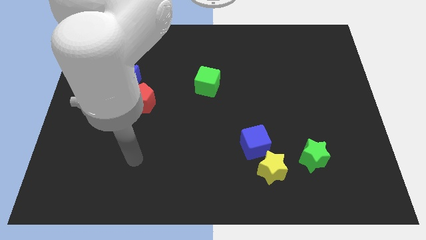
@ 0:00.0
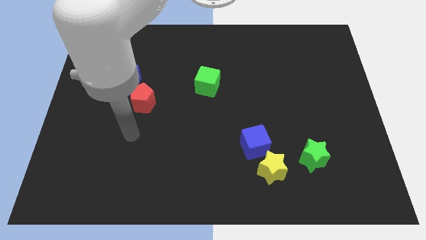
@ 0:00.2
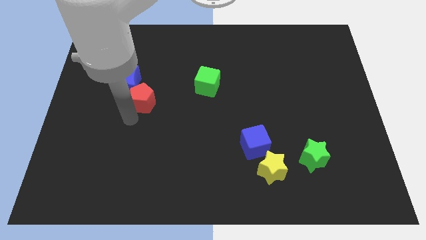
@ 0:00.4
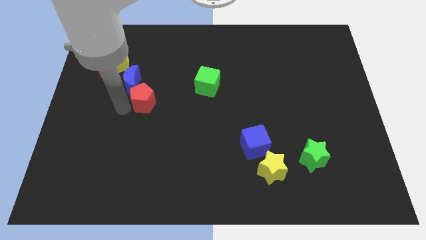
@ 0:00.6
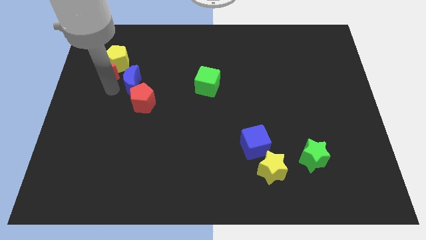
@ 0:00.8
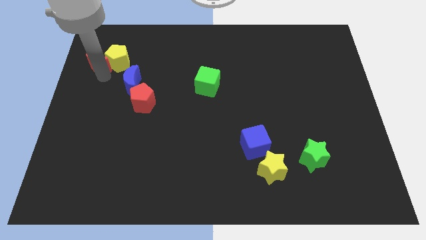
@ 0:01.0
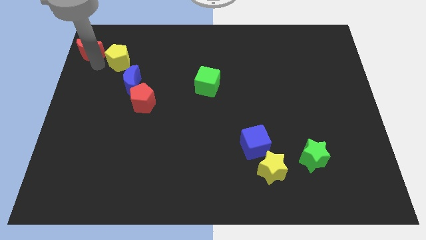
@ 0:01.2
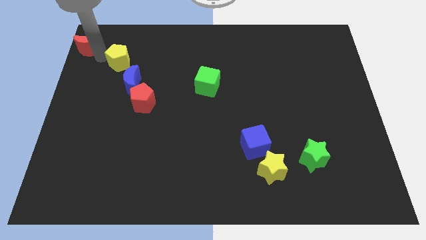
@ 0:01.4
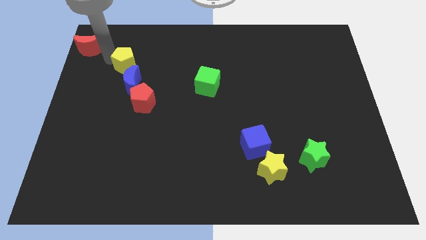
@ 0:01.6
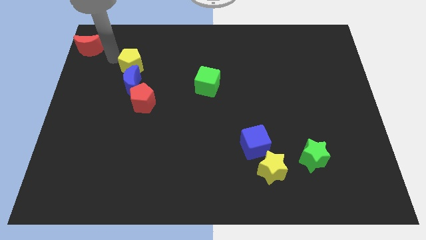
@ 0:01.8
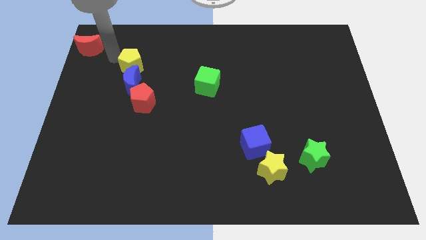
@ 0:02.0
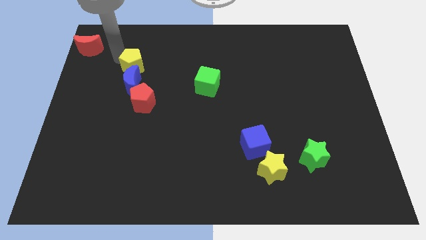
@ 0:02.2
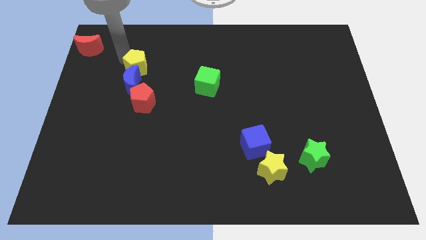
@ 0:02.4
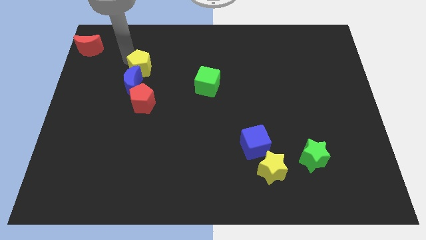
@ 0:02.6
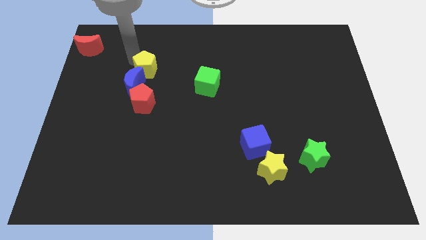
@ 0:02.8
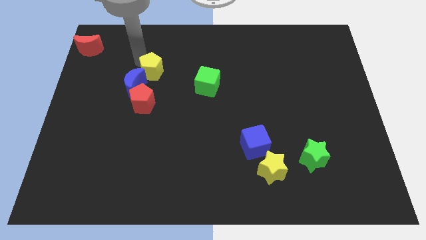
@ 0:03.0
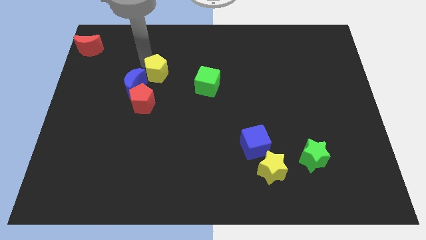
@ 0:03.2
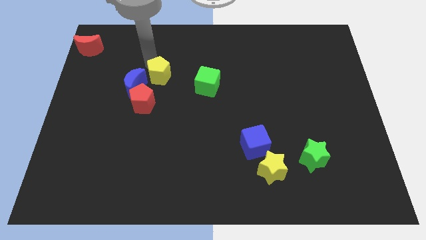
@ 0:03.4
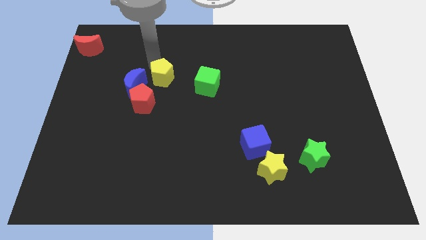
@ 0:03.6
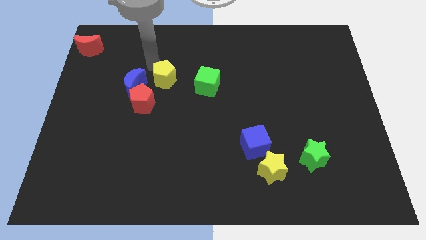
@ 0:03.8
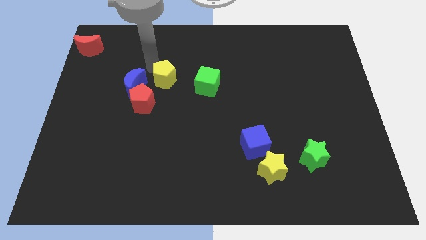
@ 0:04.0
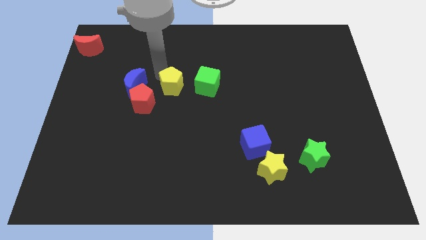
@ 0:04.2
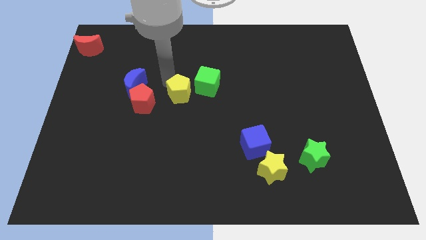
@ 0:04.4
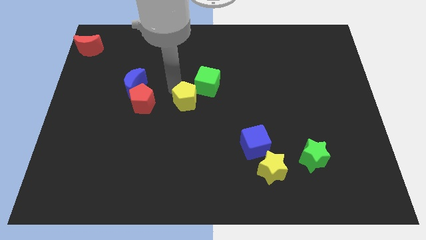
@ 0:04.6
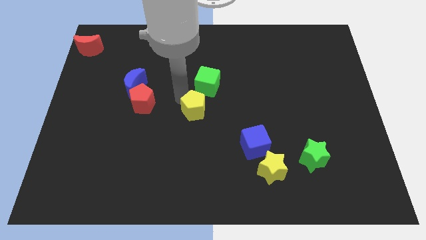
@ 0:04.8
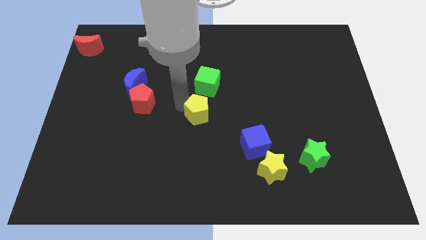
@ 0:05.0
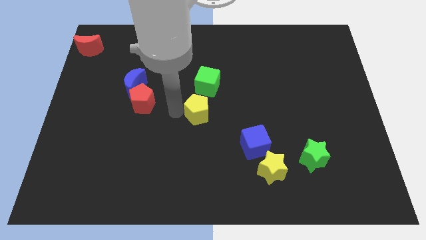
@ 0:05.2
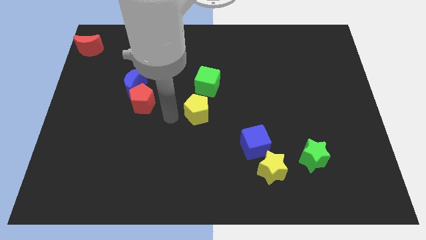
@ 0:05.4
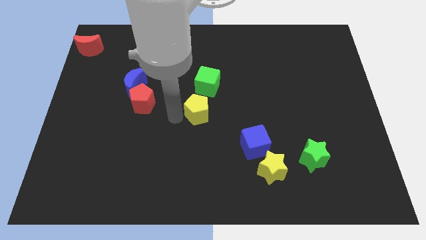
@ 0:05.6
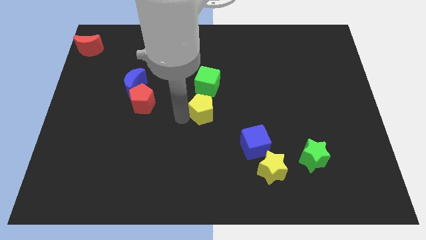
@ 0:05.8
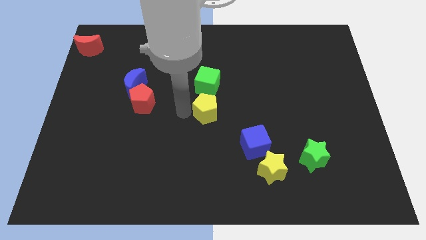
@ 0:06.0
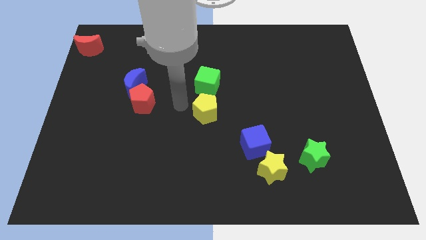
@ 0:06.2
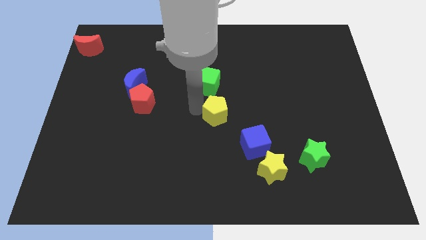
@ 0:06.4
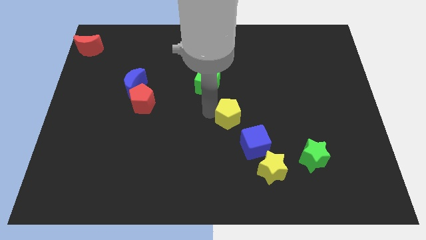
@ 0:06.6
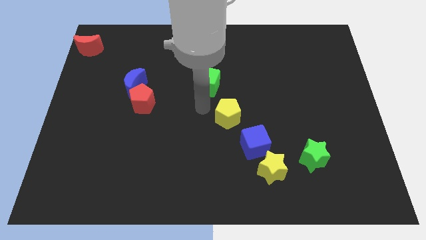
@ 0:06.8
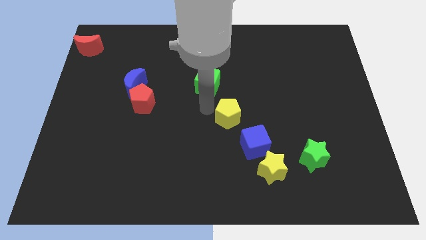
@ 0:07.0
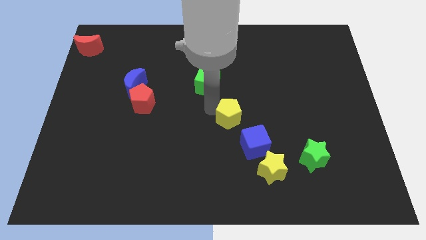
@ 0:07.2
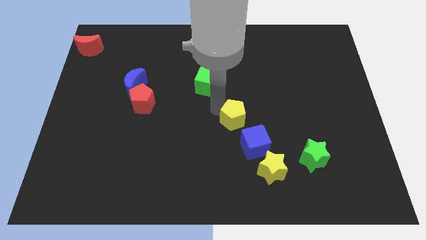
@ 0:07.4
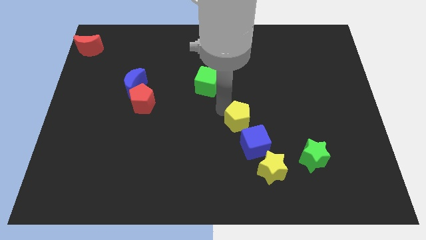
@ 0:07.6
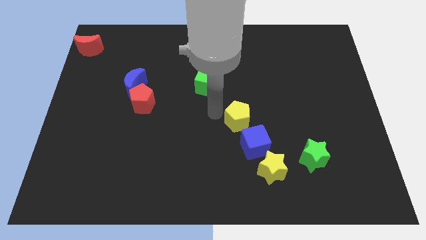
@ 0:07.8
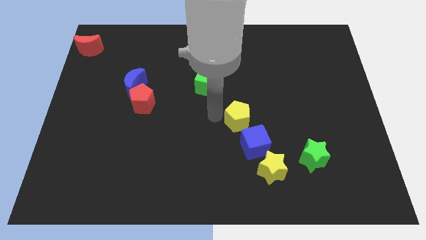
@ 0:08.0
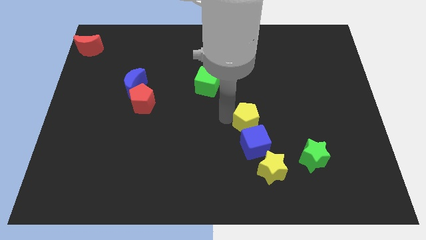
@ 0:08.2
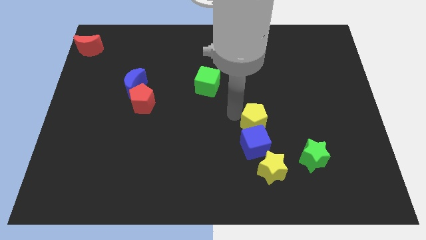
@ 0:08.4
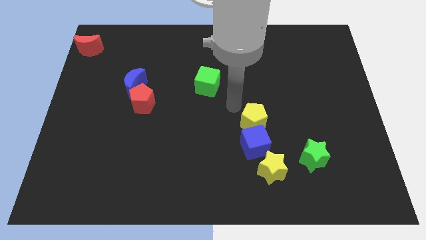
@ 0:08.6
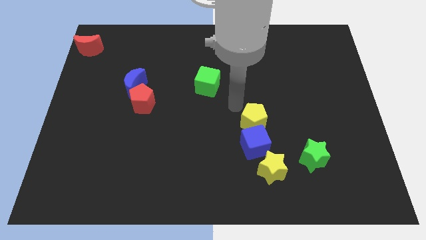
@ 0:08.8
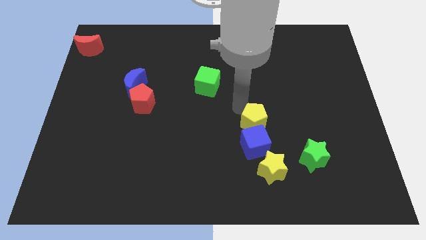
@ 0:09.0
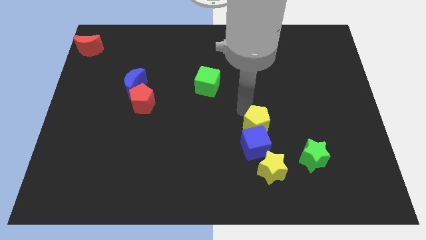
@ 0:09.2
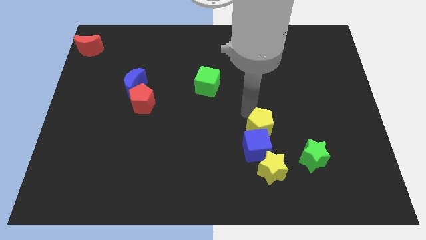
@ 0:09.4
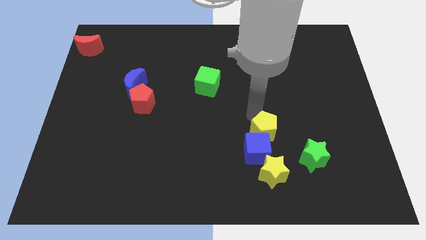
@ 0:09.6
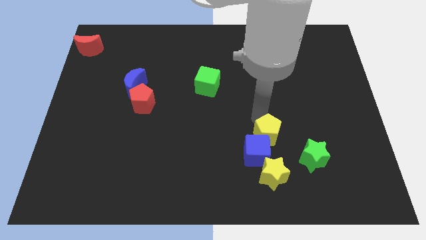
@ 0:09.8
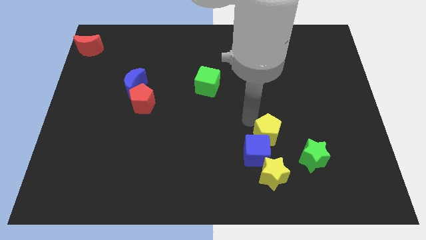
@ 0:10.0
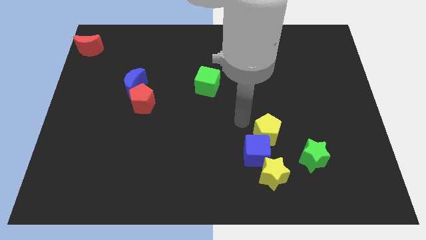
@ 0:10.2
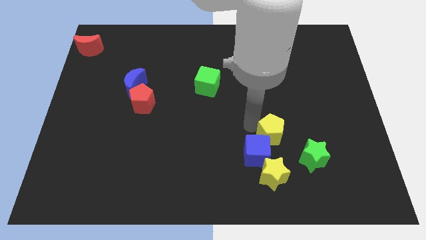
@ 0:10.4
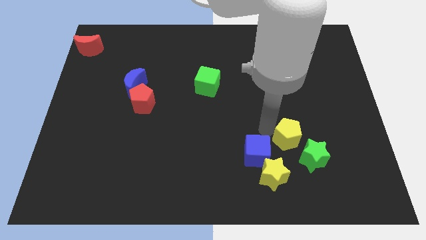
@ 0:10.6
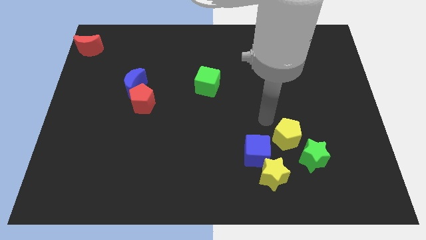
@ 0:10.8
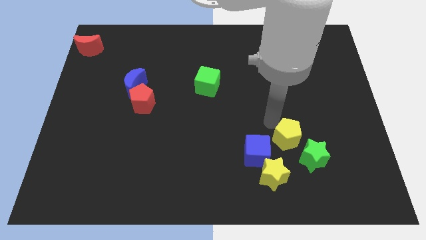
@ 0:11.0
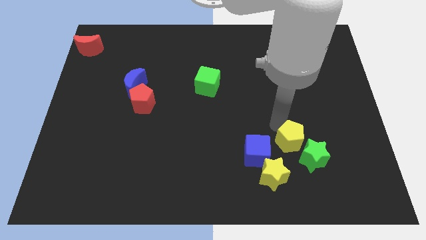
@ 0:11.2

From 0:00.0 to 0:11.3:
put the yellow pentagon close to the green star

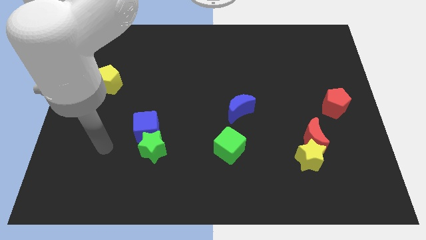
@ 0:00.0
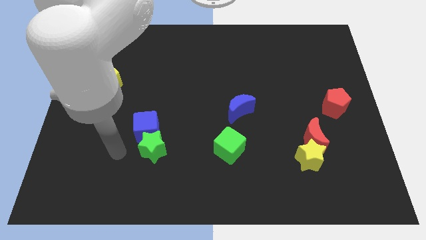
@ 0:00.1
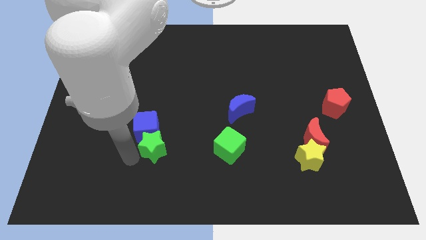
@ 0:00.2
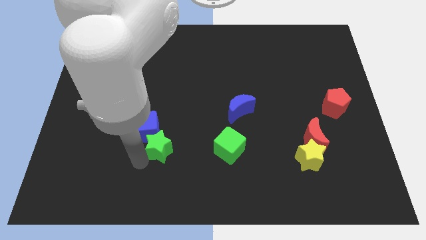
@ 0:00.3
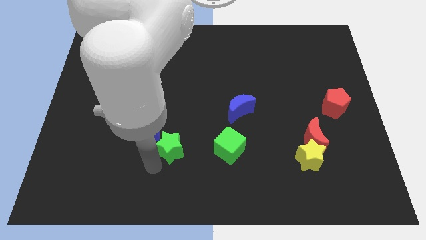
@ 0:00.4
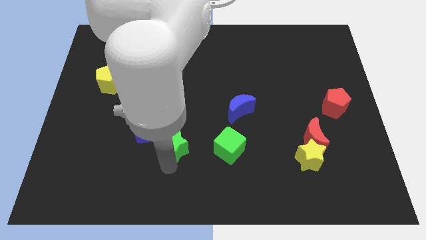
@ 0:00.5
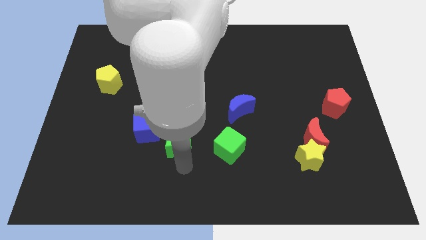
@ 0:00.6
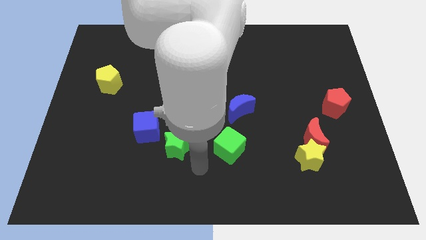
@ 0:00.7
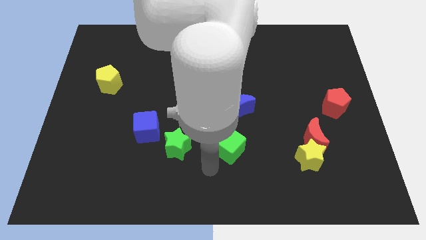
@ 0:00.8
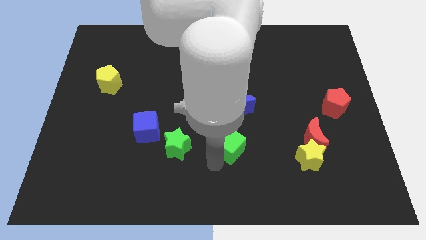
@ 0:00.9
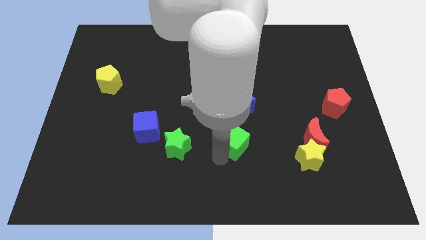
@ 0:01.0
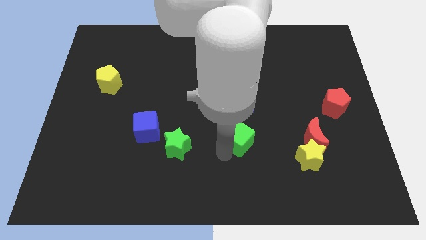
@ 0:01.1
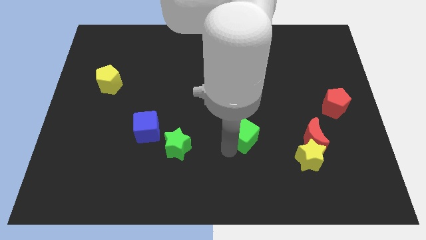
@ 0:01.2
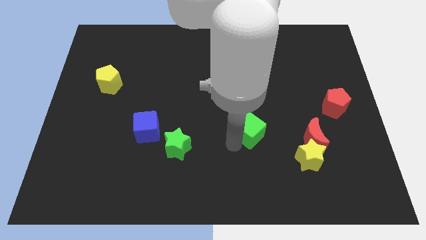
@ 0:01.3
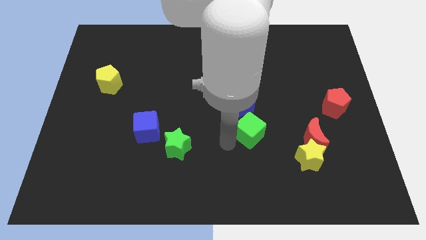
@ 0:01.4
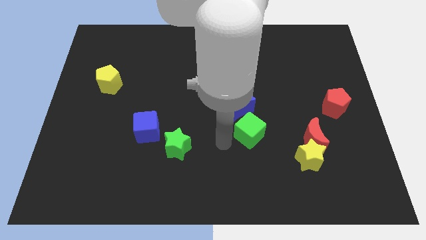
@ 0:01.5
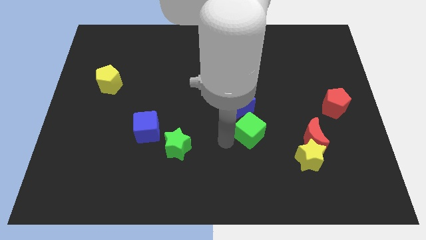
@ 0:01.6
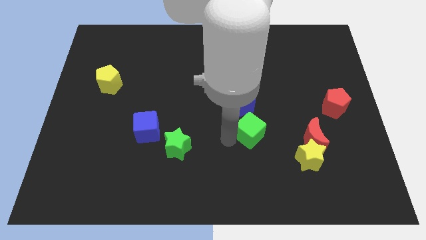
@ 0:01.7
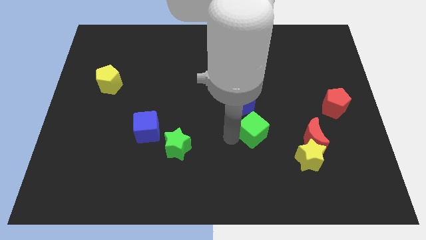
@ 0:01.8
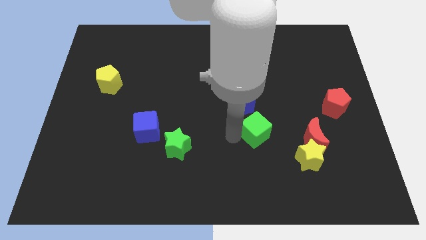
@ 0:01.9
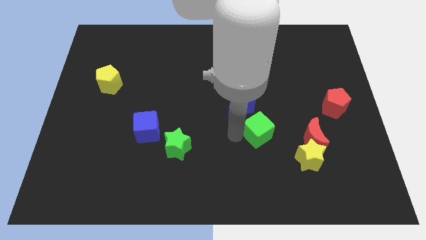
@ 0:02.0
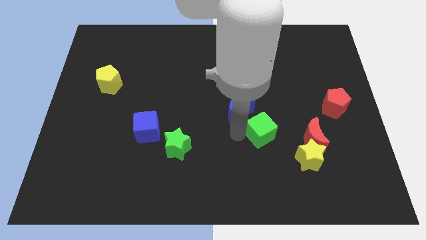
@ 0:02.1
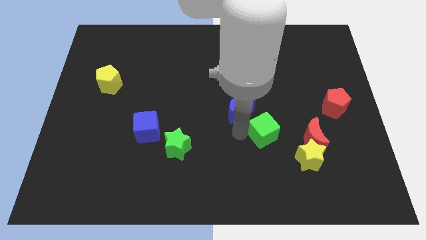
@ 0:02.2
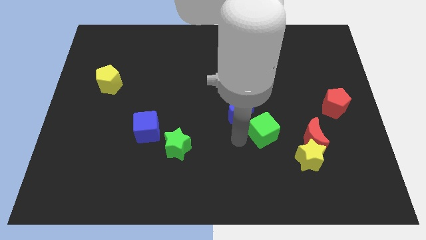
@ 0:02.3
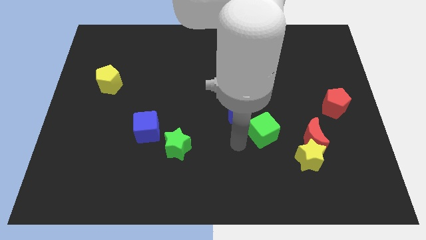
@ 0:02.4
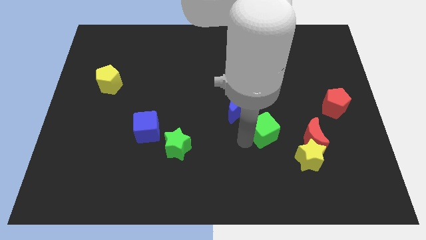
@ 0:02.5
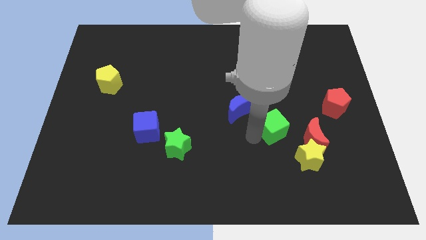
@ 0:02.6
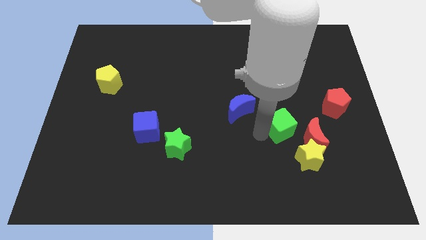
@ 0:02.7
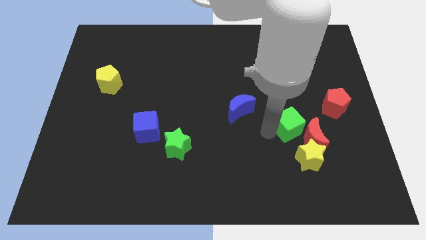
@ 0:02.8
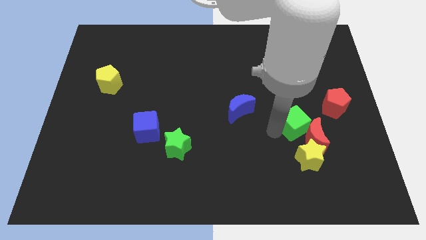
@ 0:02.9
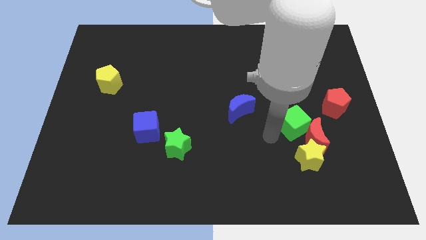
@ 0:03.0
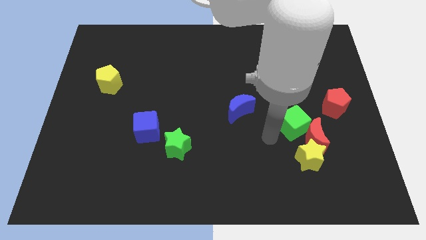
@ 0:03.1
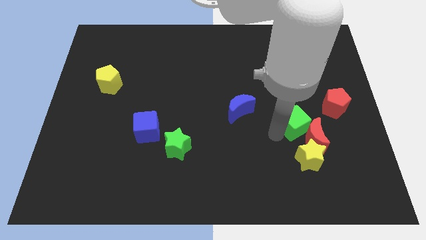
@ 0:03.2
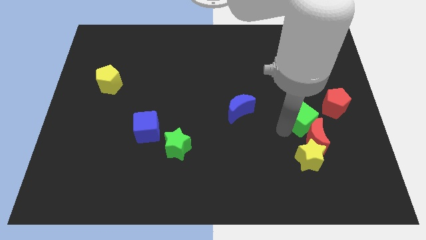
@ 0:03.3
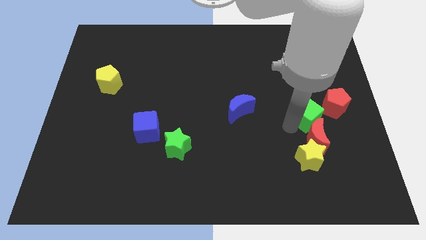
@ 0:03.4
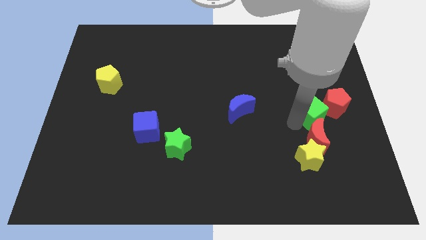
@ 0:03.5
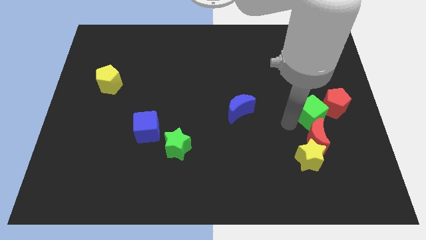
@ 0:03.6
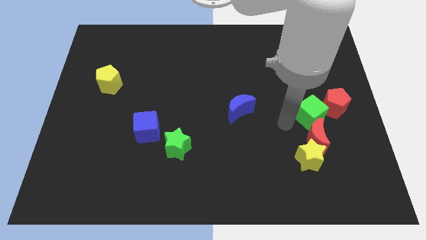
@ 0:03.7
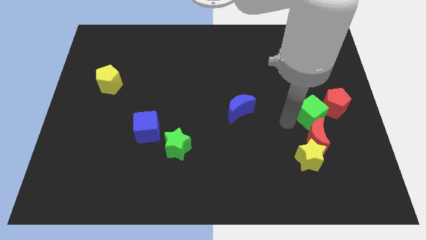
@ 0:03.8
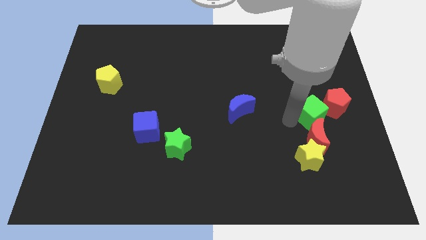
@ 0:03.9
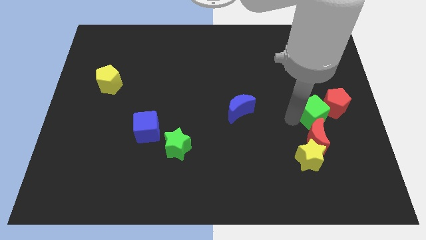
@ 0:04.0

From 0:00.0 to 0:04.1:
push the green cube close to the red pentagon
